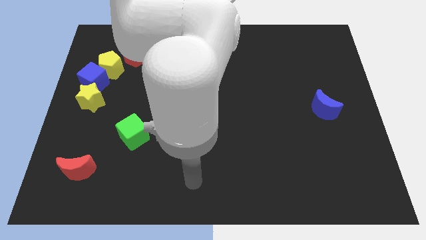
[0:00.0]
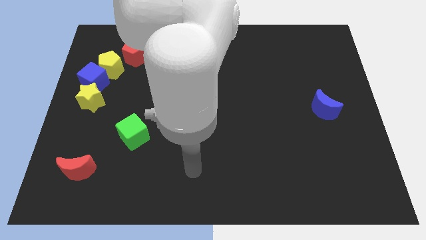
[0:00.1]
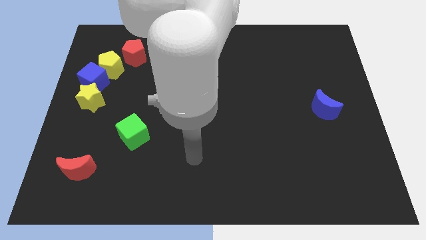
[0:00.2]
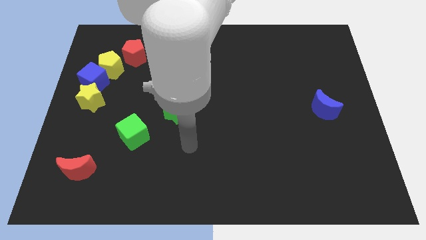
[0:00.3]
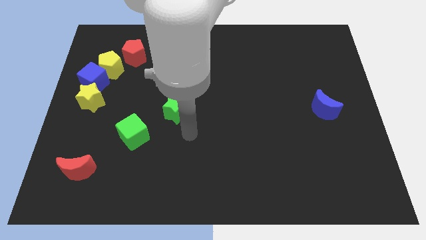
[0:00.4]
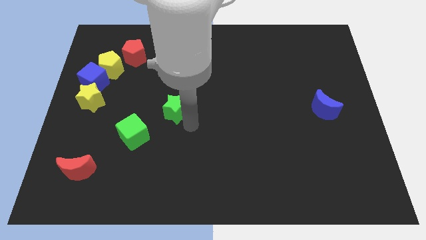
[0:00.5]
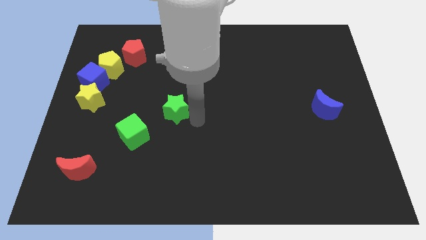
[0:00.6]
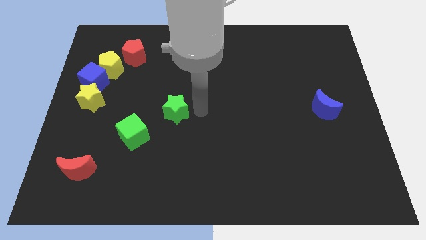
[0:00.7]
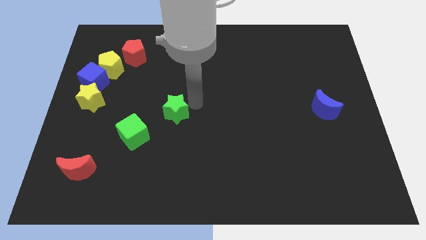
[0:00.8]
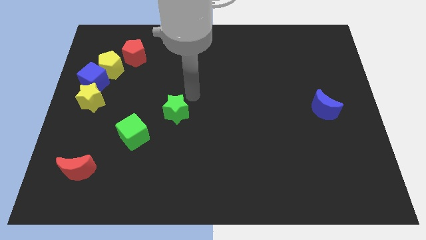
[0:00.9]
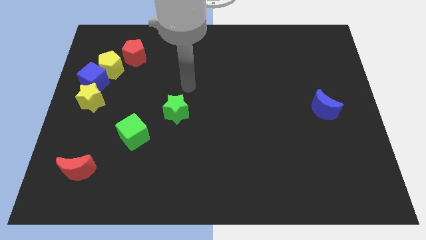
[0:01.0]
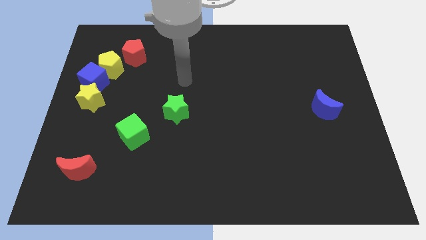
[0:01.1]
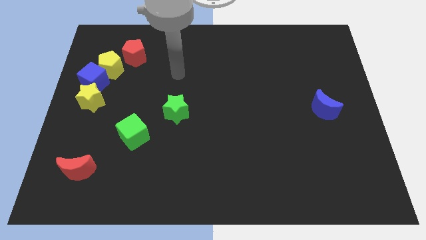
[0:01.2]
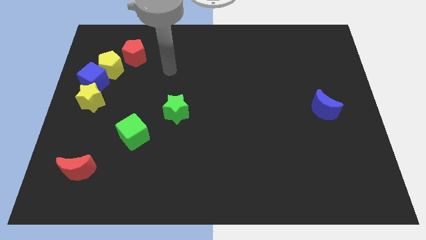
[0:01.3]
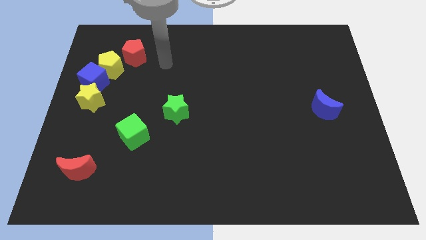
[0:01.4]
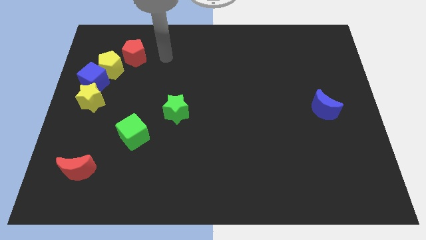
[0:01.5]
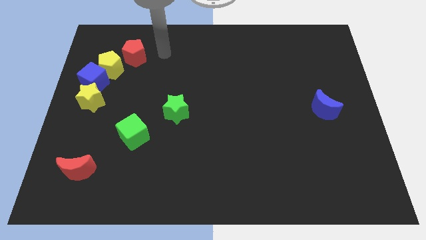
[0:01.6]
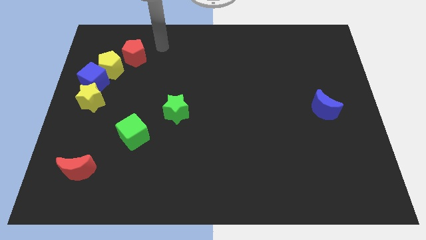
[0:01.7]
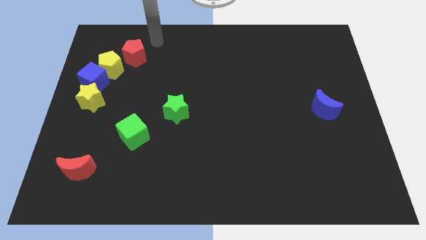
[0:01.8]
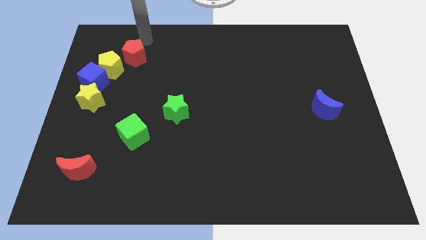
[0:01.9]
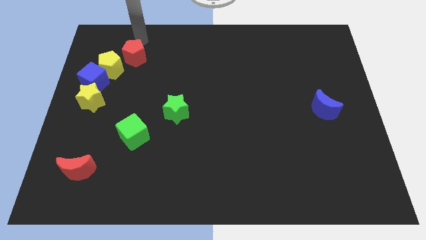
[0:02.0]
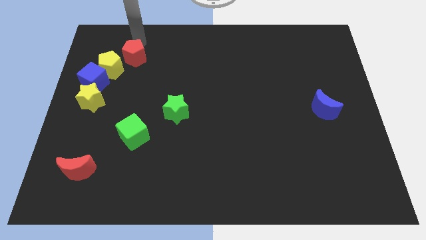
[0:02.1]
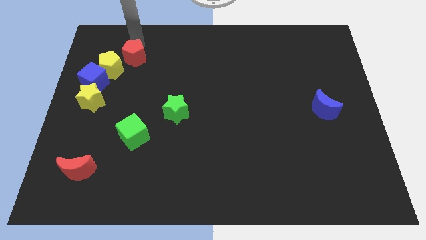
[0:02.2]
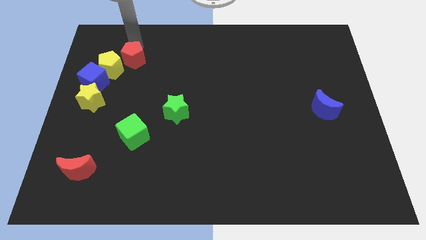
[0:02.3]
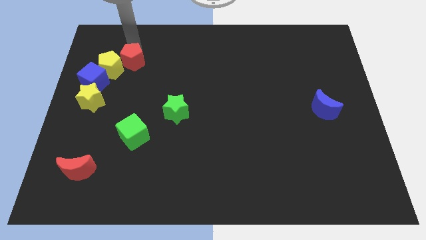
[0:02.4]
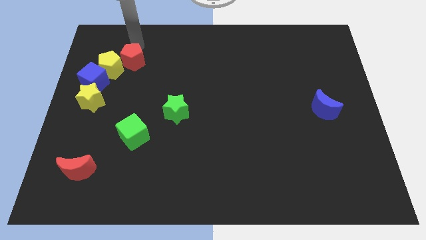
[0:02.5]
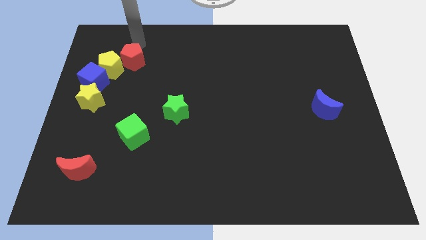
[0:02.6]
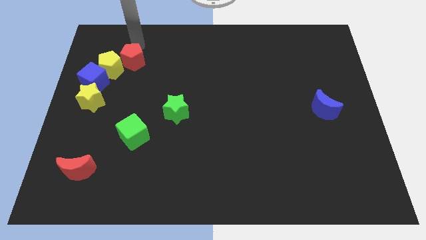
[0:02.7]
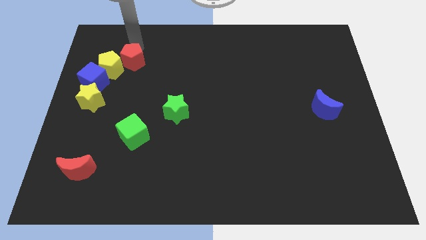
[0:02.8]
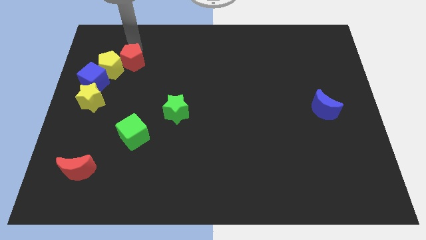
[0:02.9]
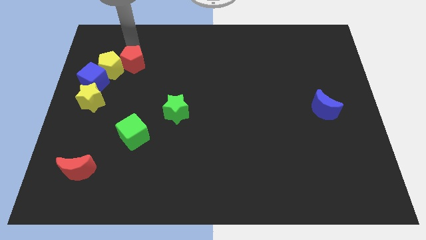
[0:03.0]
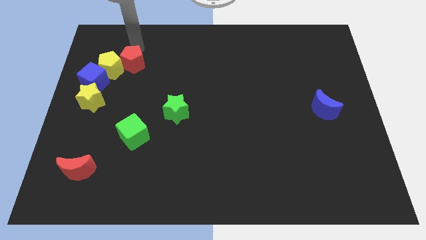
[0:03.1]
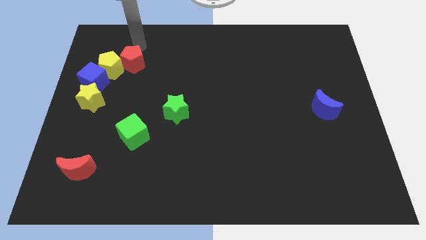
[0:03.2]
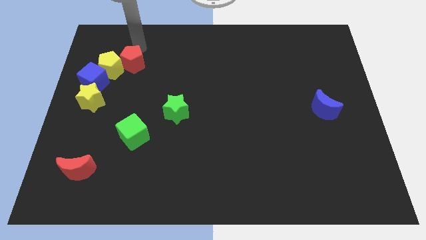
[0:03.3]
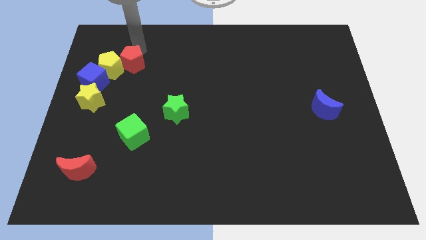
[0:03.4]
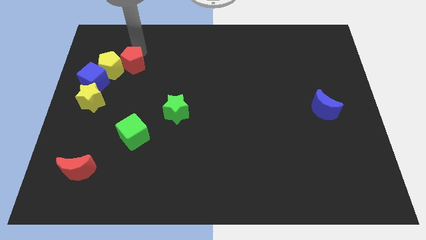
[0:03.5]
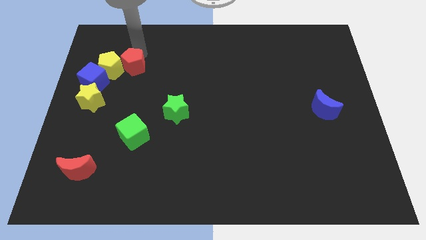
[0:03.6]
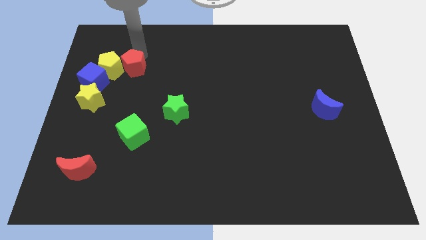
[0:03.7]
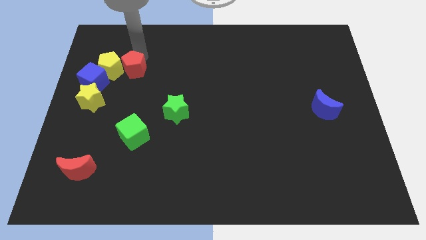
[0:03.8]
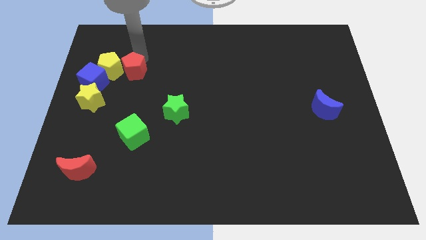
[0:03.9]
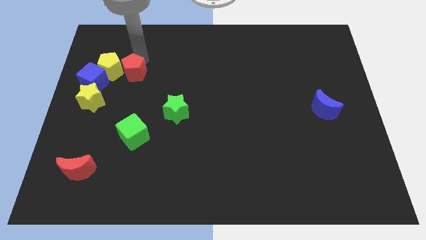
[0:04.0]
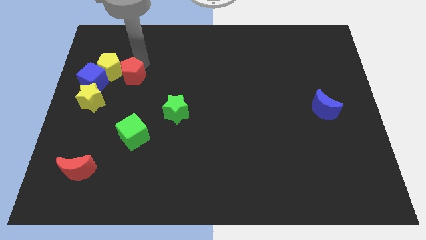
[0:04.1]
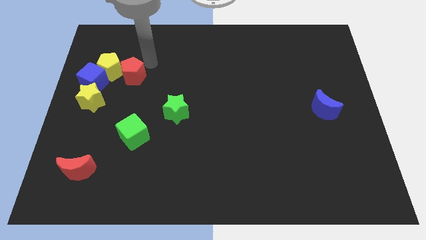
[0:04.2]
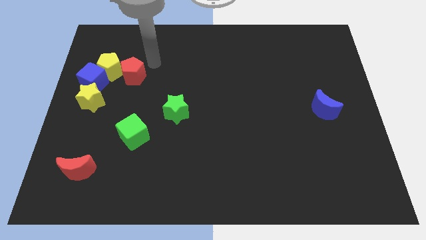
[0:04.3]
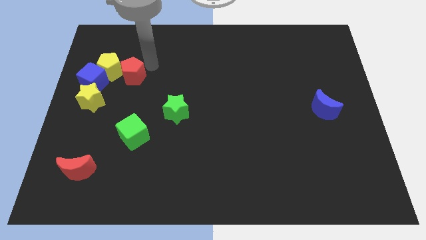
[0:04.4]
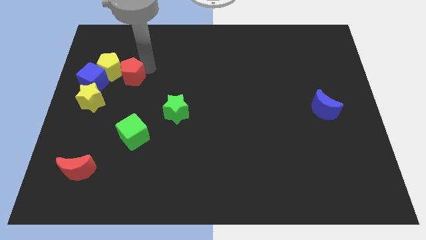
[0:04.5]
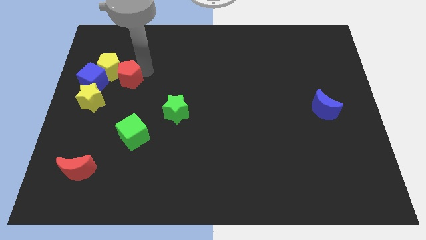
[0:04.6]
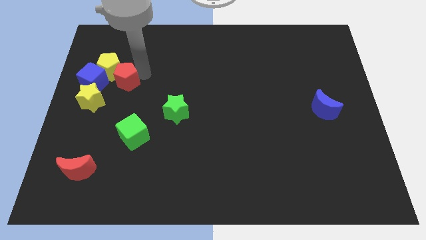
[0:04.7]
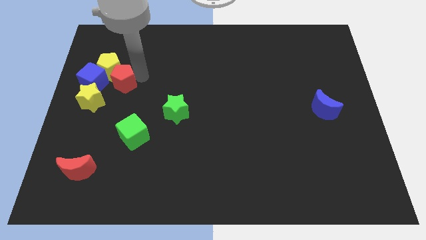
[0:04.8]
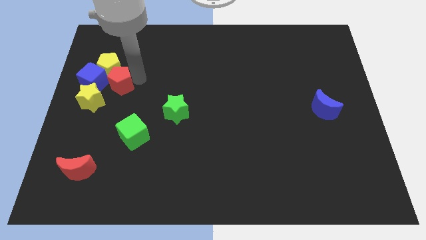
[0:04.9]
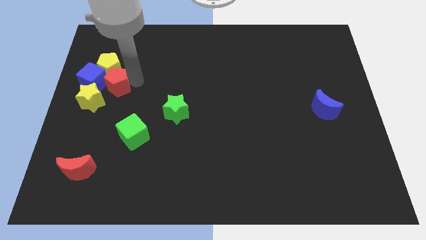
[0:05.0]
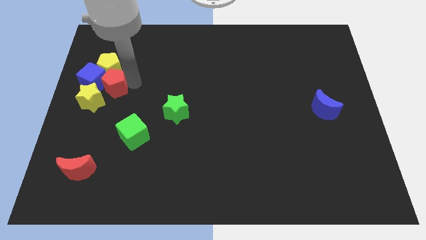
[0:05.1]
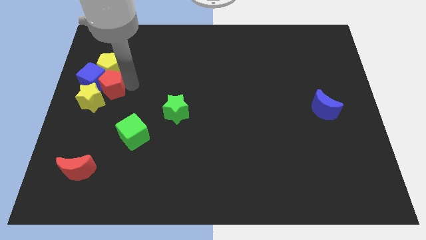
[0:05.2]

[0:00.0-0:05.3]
push the red pentagon close to the yellow star

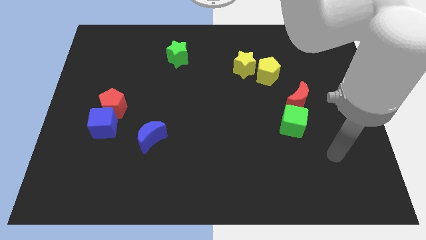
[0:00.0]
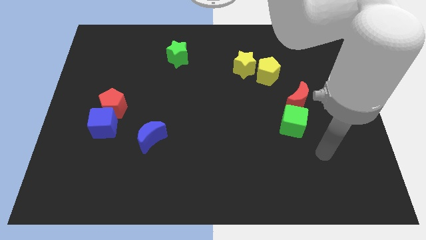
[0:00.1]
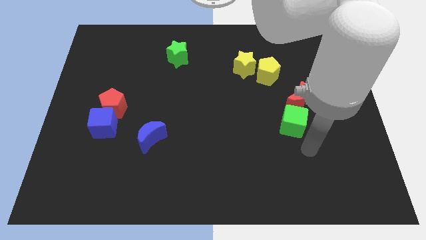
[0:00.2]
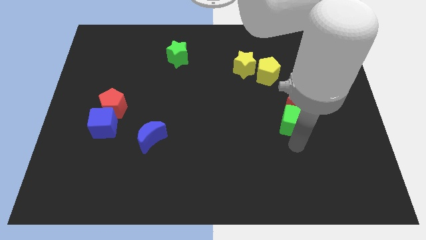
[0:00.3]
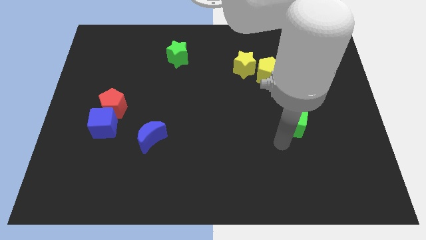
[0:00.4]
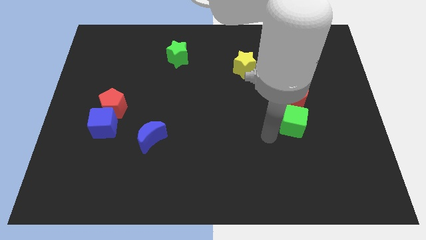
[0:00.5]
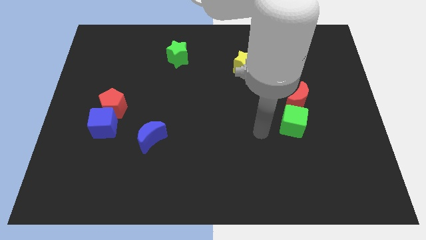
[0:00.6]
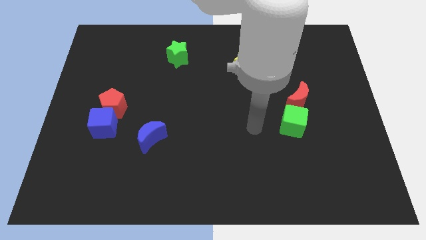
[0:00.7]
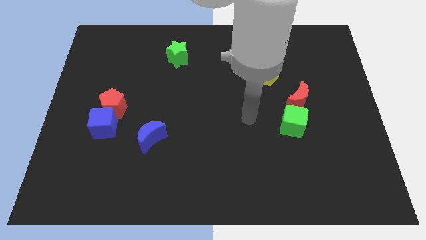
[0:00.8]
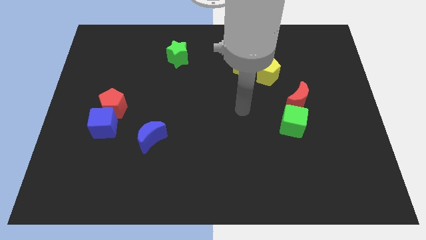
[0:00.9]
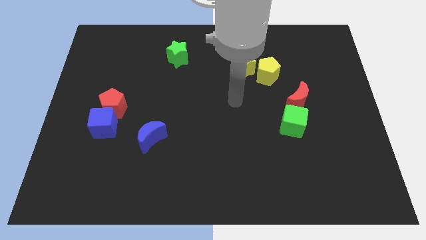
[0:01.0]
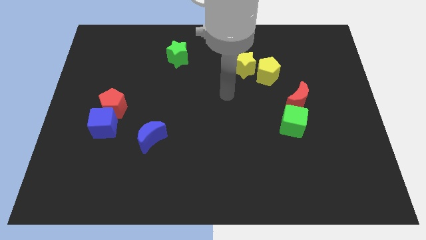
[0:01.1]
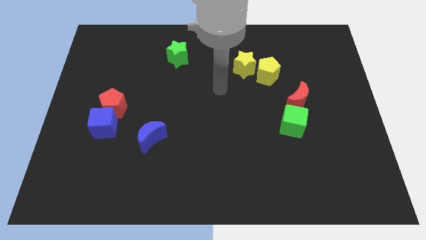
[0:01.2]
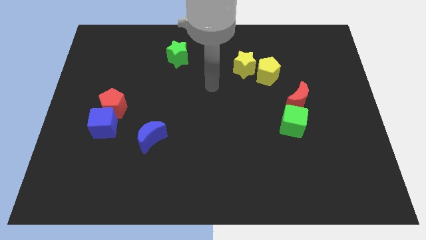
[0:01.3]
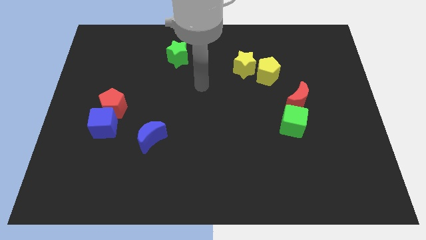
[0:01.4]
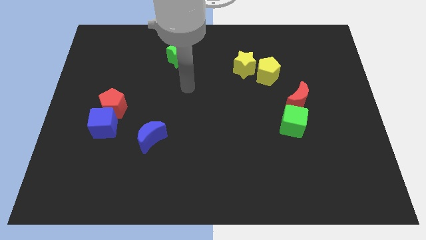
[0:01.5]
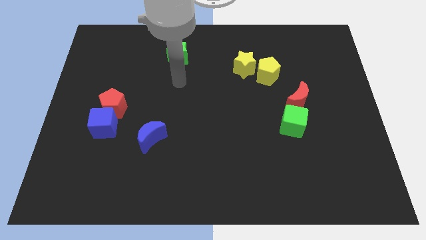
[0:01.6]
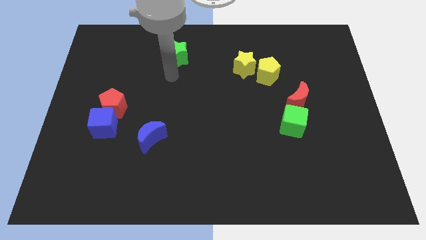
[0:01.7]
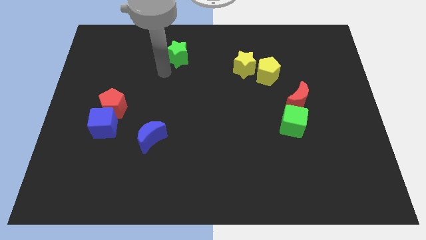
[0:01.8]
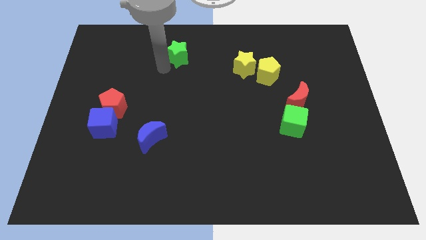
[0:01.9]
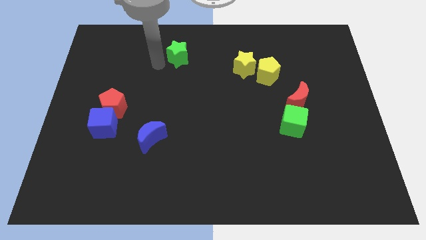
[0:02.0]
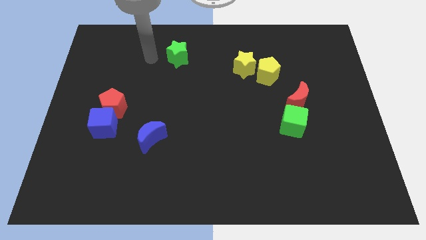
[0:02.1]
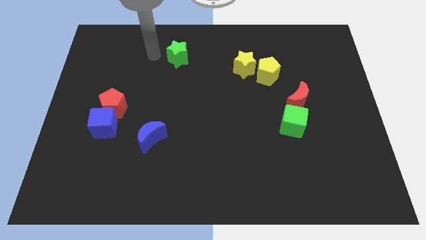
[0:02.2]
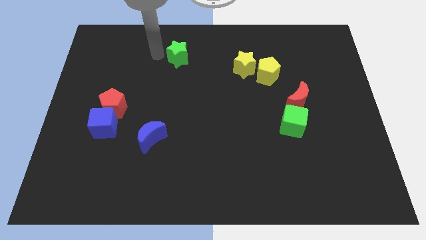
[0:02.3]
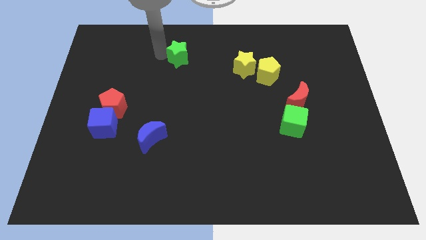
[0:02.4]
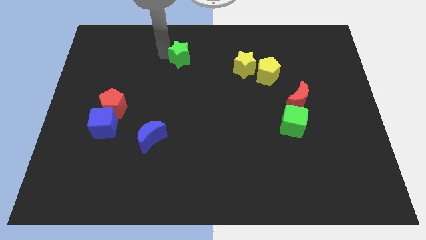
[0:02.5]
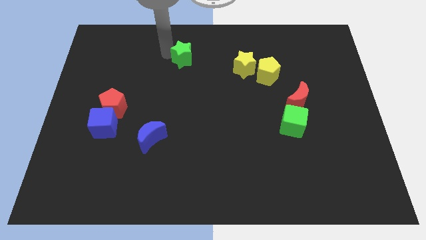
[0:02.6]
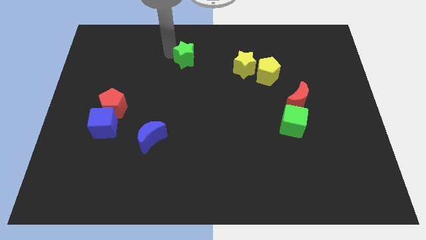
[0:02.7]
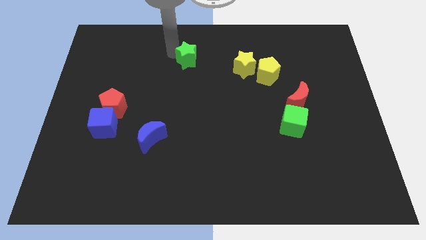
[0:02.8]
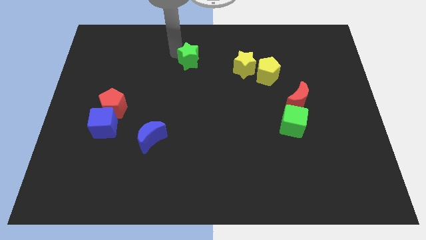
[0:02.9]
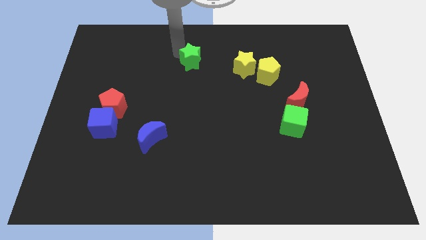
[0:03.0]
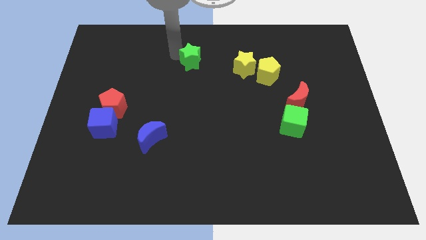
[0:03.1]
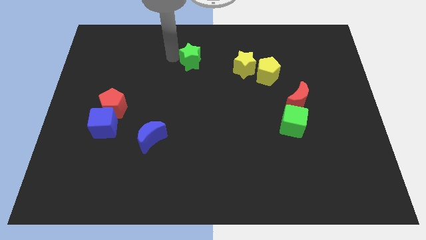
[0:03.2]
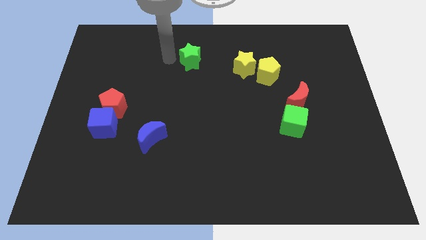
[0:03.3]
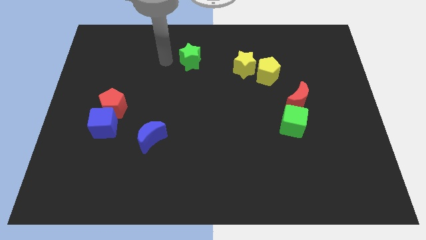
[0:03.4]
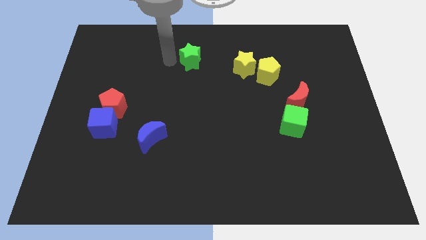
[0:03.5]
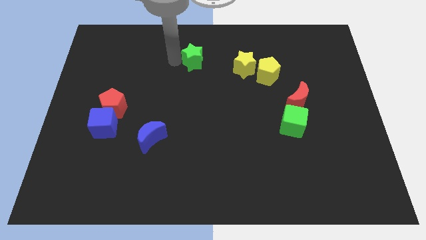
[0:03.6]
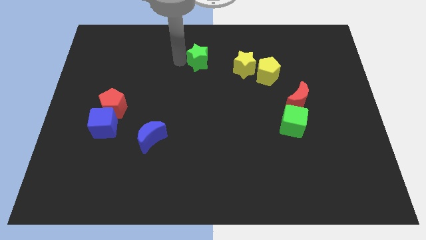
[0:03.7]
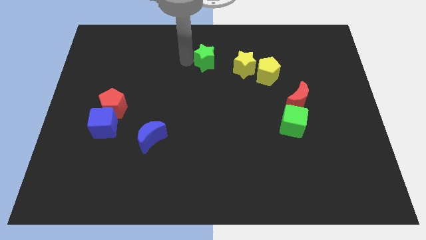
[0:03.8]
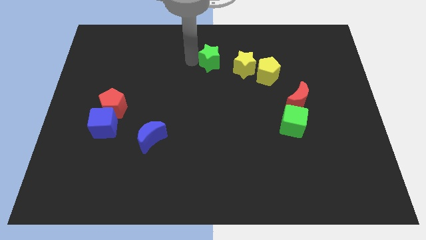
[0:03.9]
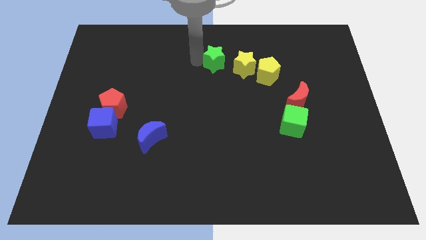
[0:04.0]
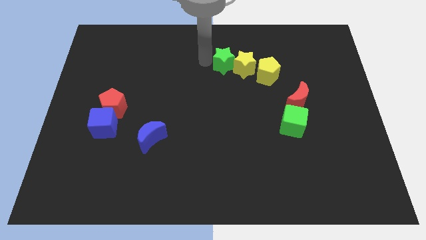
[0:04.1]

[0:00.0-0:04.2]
push the green star to the yellow star
